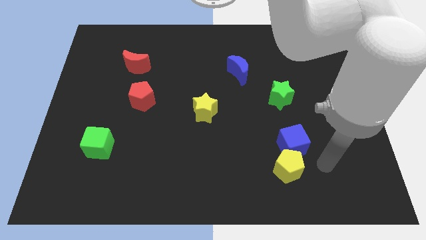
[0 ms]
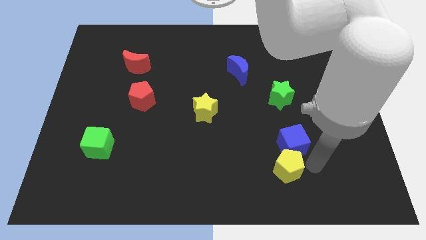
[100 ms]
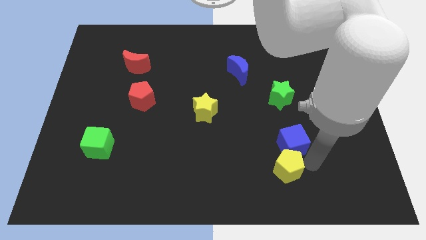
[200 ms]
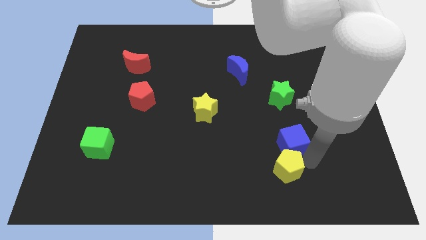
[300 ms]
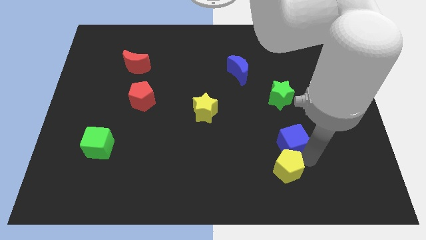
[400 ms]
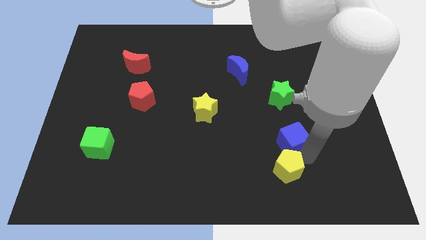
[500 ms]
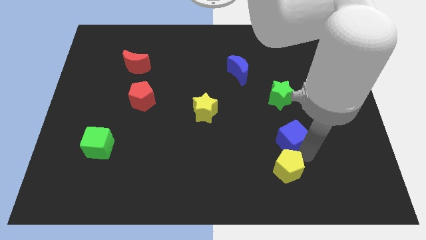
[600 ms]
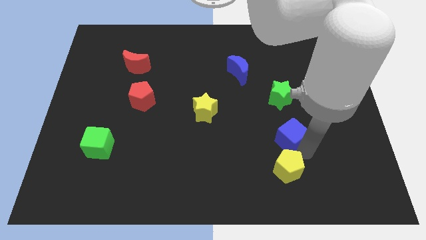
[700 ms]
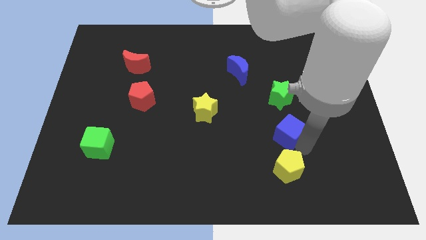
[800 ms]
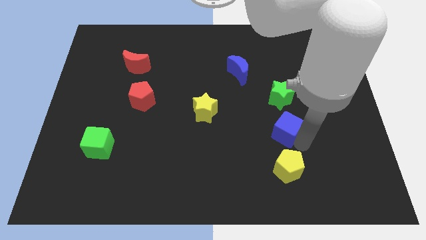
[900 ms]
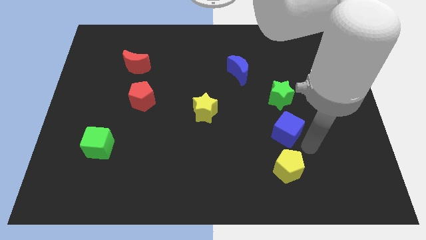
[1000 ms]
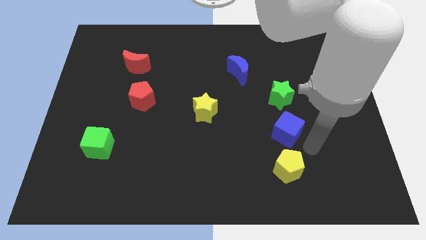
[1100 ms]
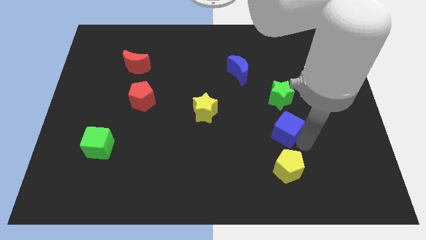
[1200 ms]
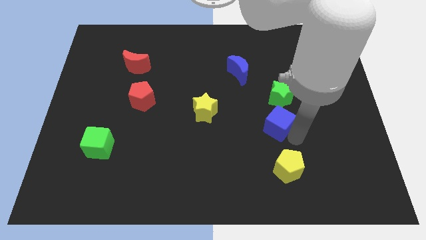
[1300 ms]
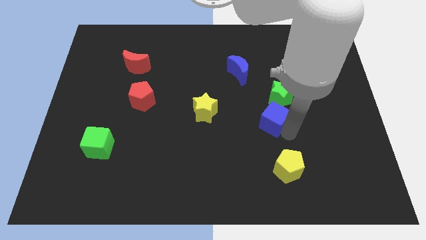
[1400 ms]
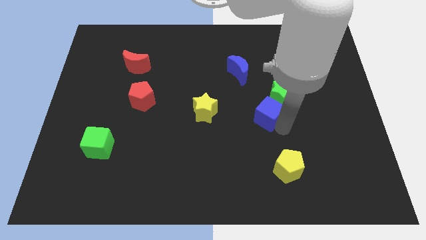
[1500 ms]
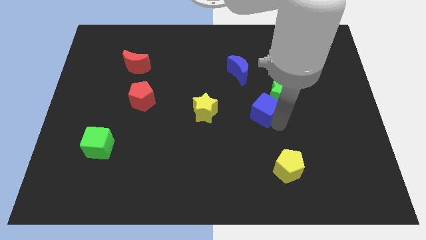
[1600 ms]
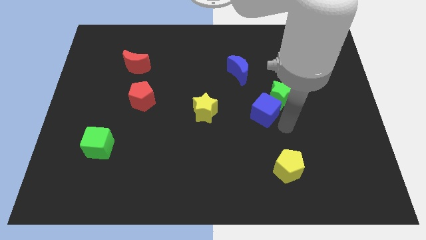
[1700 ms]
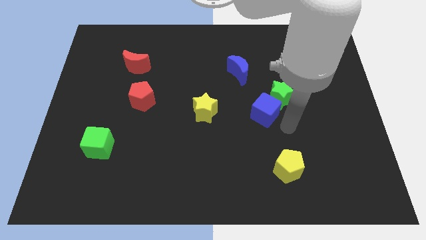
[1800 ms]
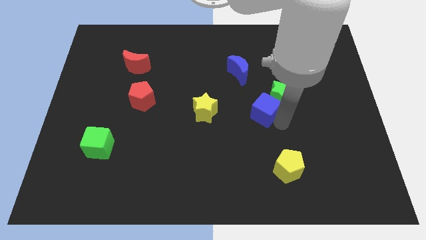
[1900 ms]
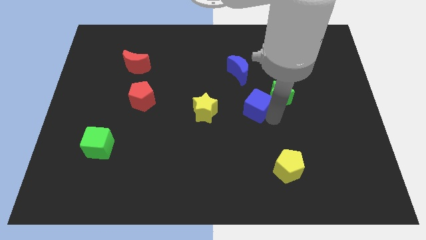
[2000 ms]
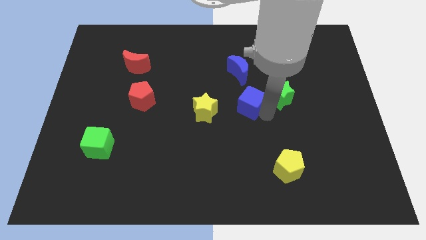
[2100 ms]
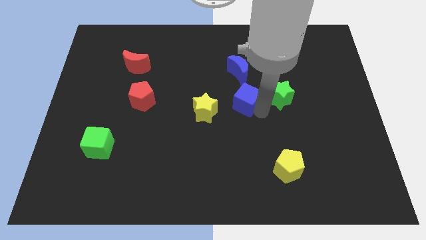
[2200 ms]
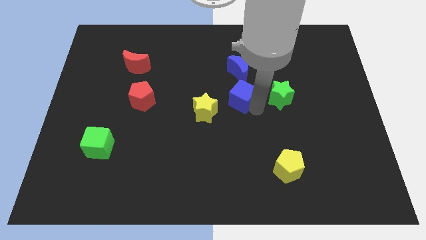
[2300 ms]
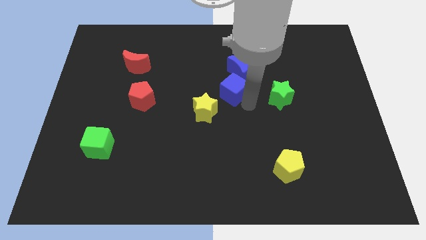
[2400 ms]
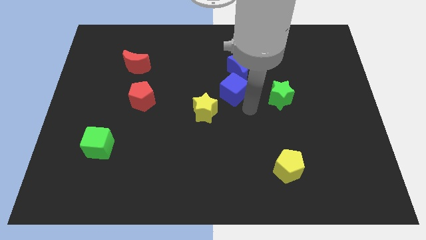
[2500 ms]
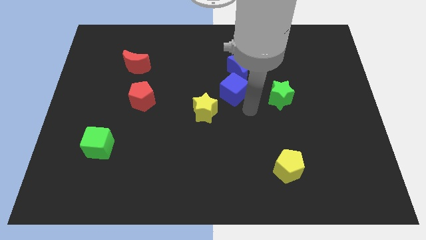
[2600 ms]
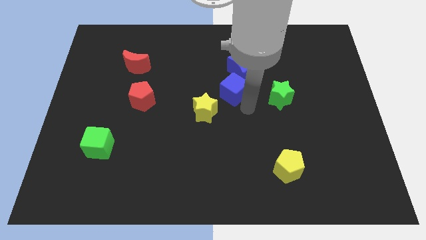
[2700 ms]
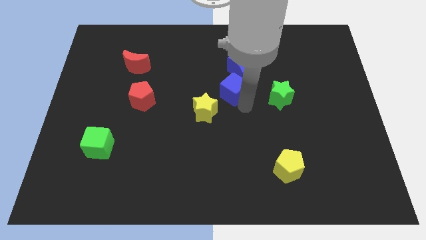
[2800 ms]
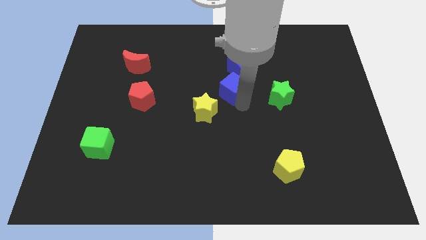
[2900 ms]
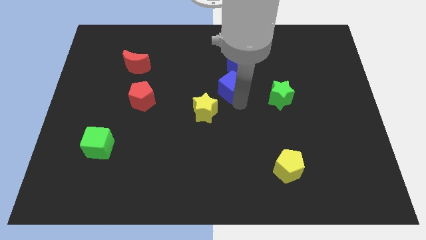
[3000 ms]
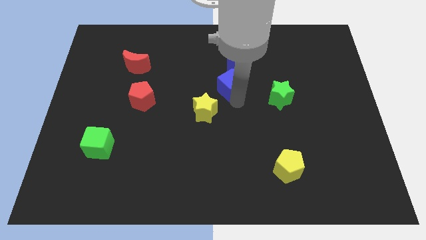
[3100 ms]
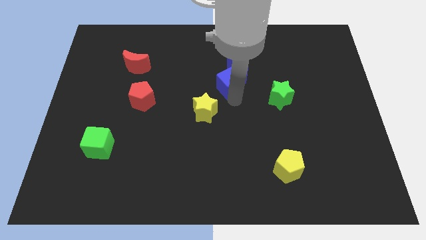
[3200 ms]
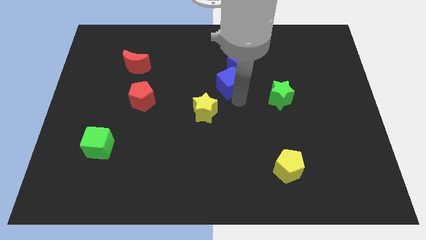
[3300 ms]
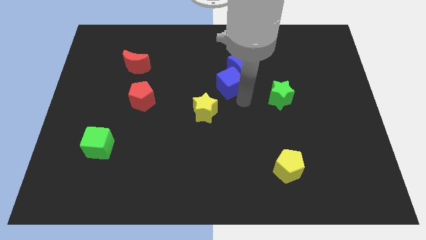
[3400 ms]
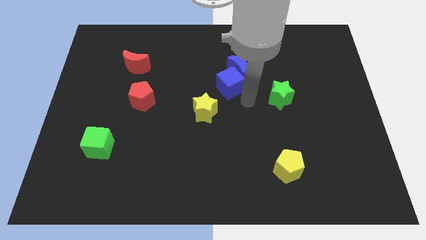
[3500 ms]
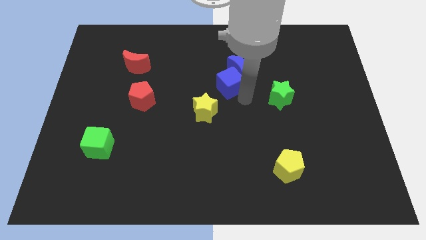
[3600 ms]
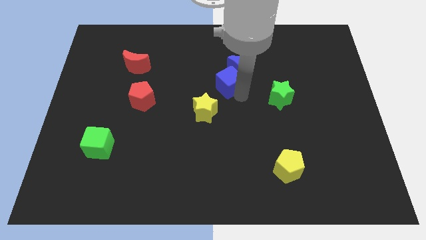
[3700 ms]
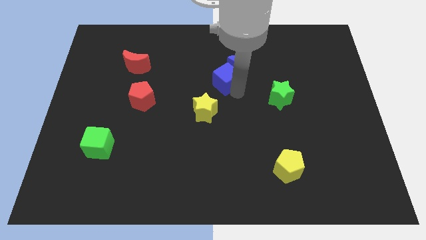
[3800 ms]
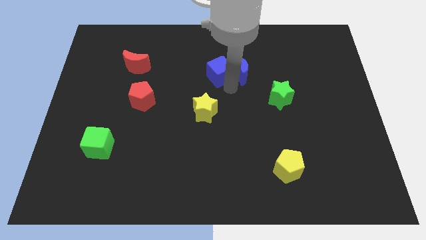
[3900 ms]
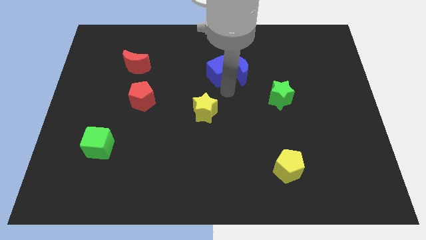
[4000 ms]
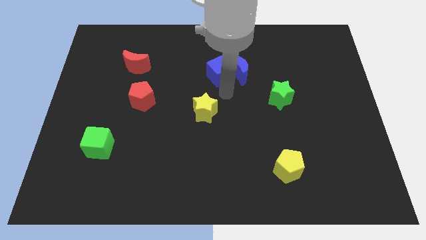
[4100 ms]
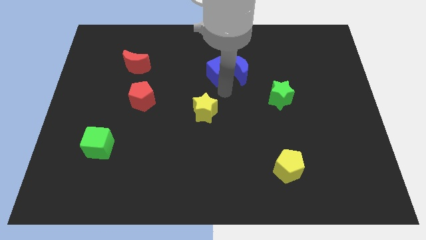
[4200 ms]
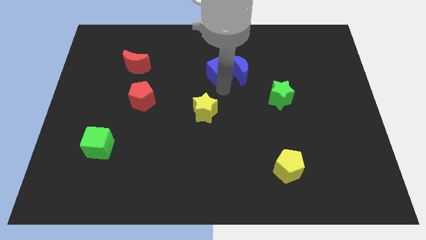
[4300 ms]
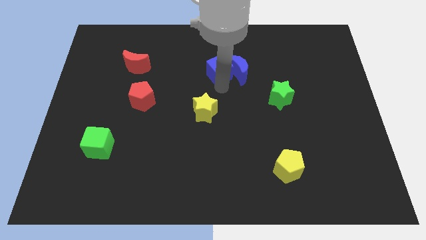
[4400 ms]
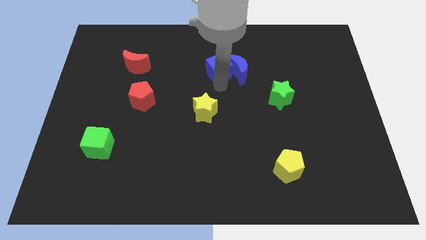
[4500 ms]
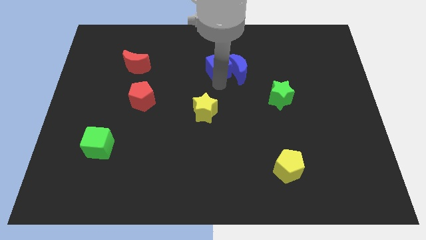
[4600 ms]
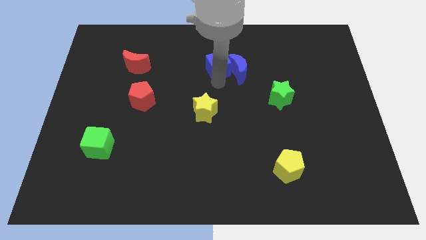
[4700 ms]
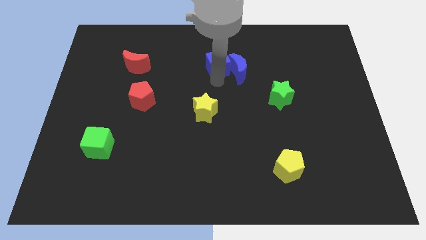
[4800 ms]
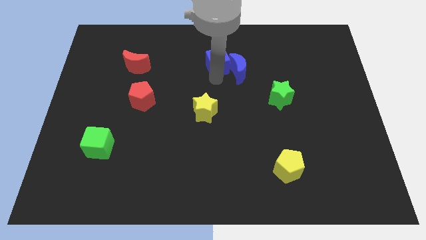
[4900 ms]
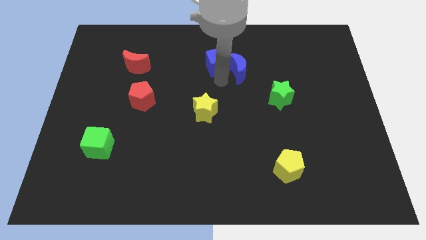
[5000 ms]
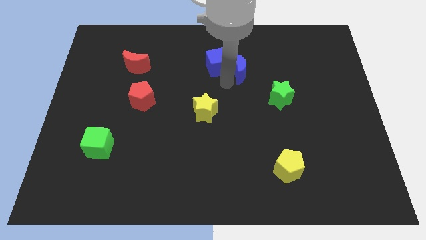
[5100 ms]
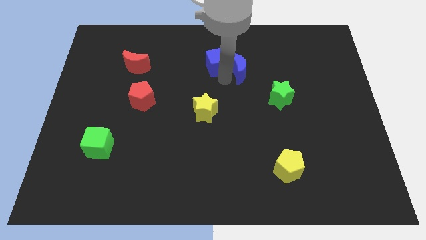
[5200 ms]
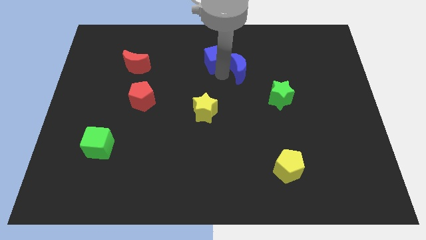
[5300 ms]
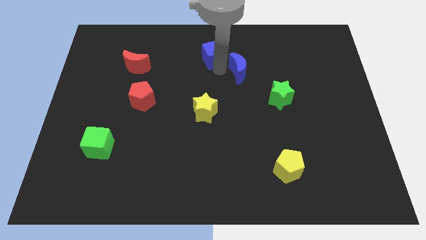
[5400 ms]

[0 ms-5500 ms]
slide the blue cube to the towards your base

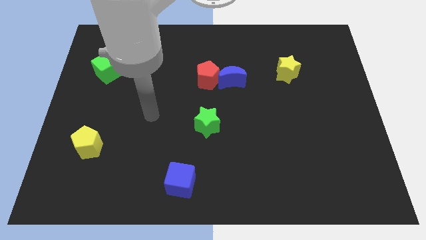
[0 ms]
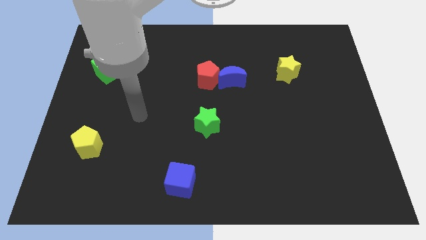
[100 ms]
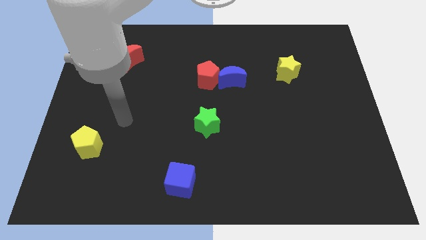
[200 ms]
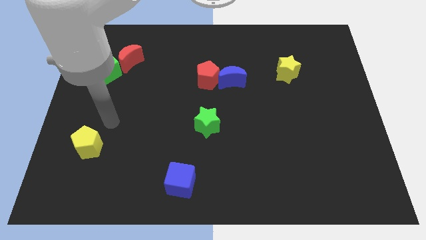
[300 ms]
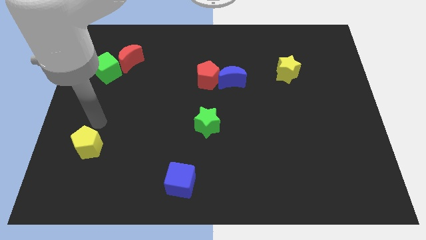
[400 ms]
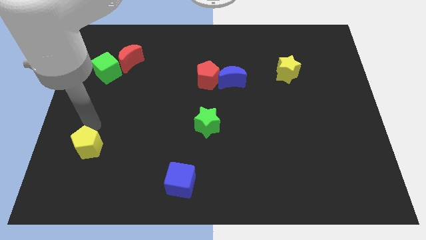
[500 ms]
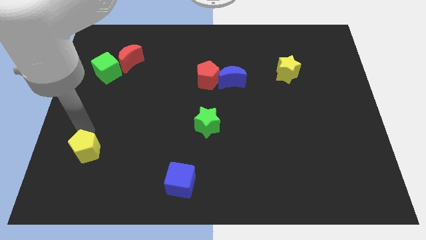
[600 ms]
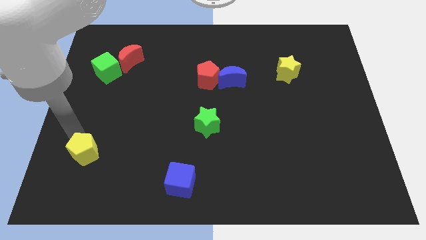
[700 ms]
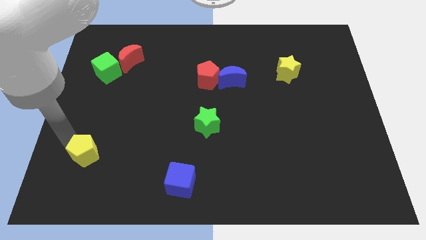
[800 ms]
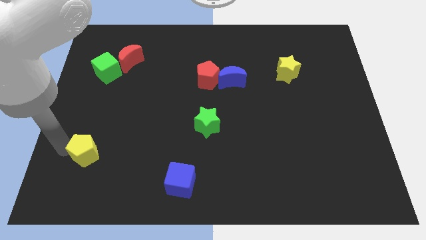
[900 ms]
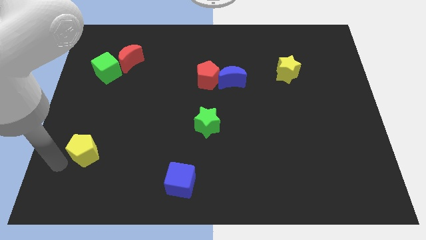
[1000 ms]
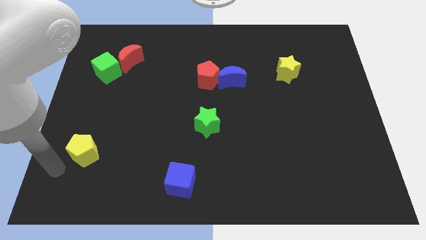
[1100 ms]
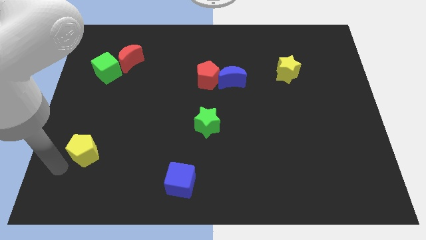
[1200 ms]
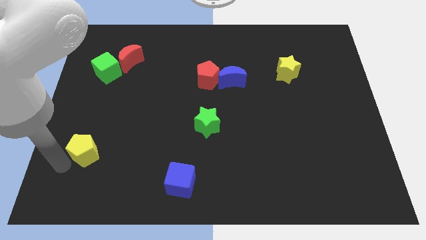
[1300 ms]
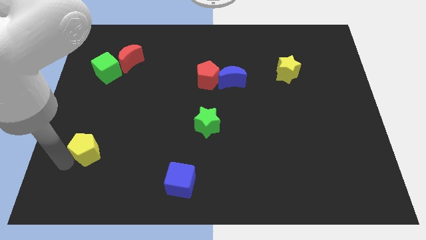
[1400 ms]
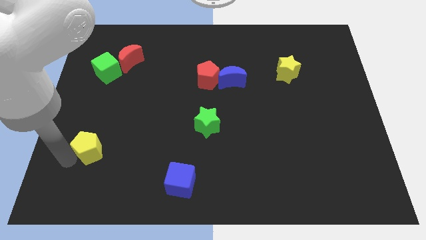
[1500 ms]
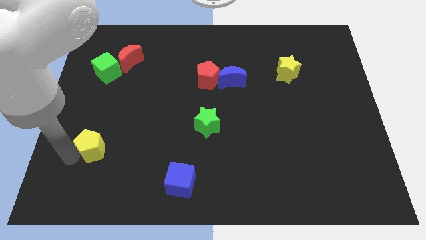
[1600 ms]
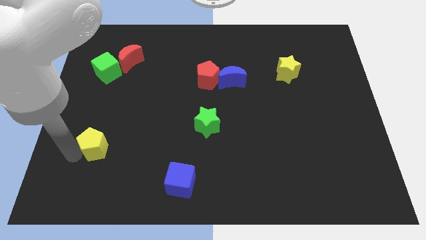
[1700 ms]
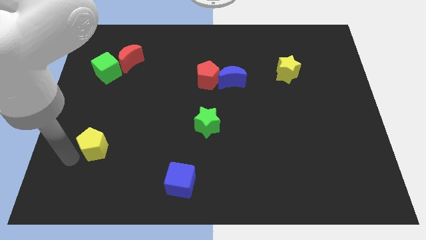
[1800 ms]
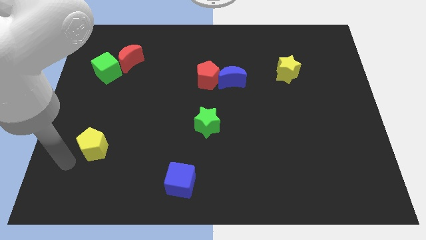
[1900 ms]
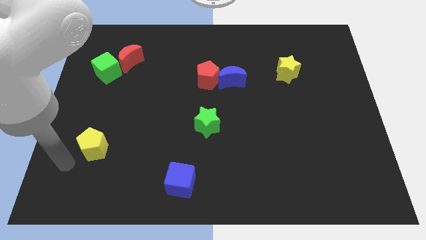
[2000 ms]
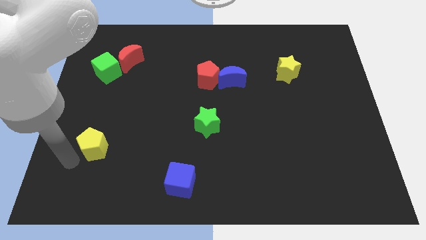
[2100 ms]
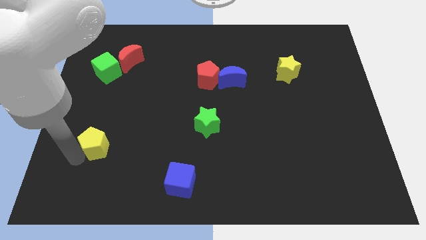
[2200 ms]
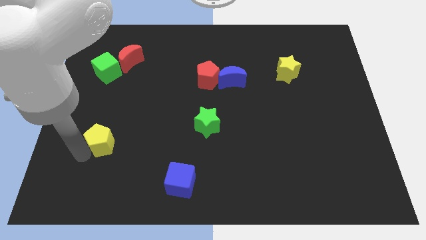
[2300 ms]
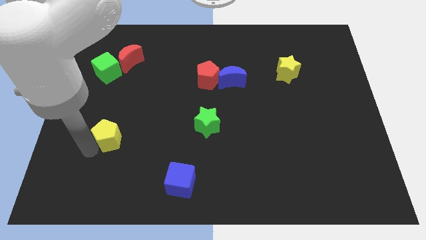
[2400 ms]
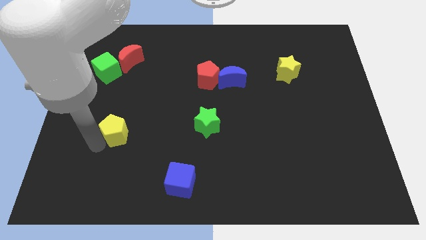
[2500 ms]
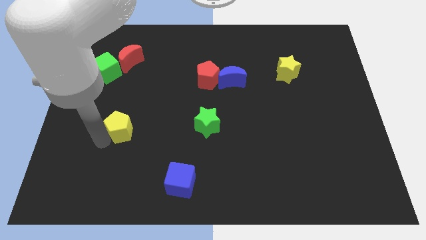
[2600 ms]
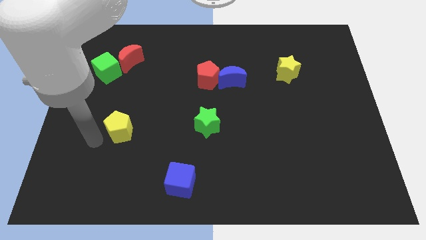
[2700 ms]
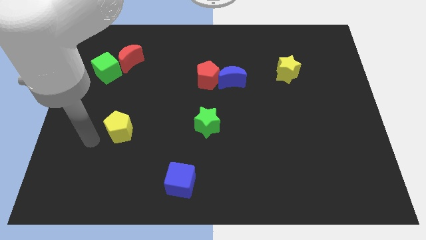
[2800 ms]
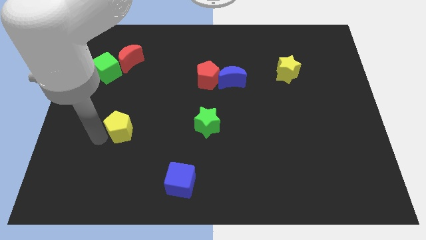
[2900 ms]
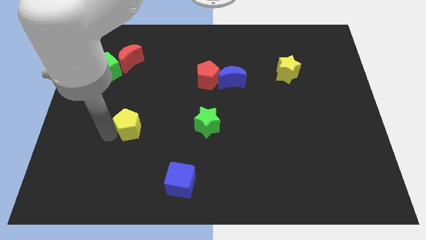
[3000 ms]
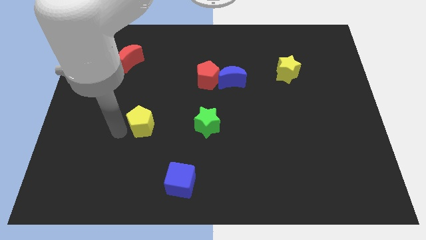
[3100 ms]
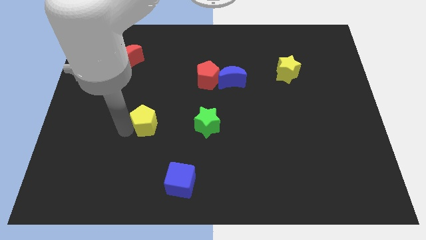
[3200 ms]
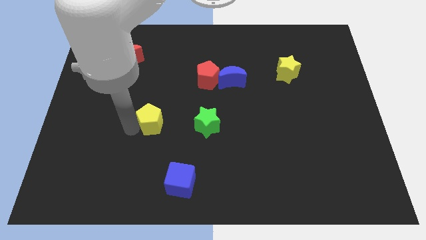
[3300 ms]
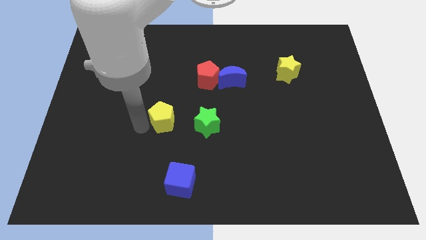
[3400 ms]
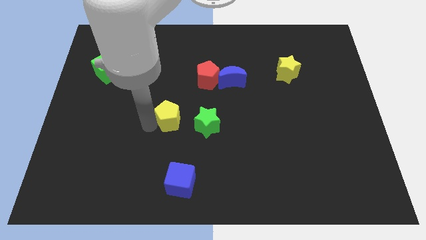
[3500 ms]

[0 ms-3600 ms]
push the yellow pentagon to the middle
